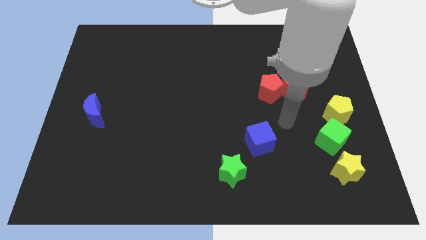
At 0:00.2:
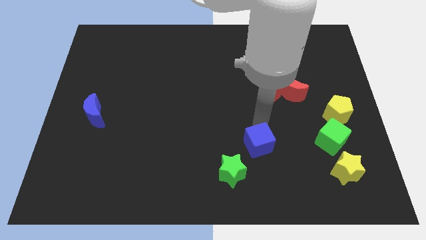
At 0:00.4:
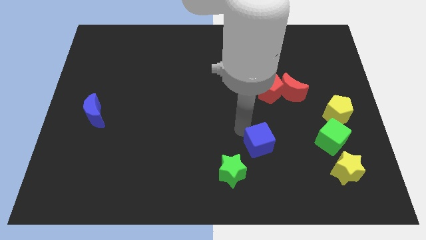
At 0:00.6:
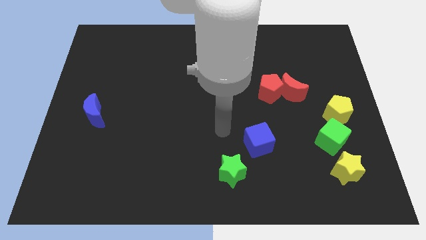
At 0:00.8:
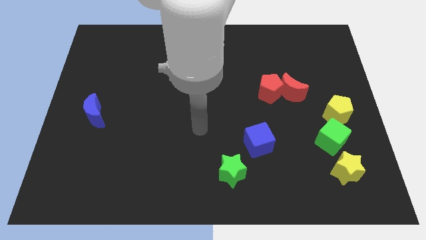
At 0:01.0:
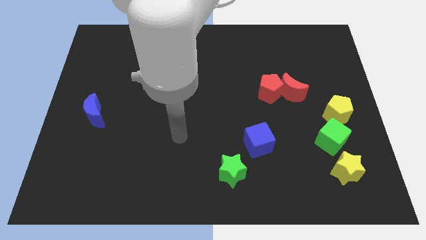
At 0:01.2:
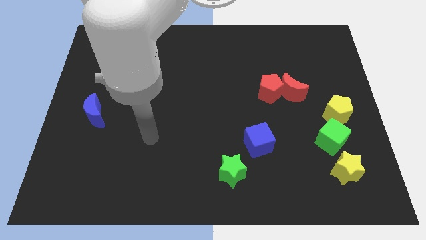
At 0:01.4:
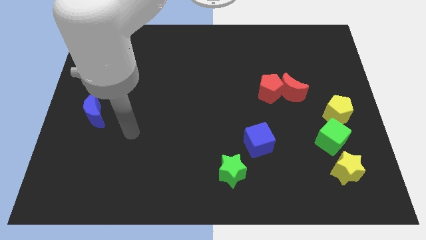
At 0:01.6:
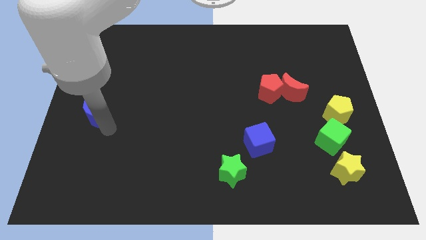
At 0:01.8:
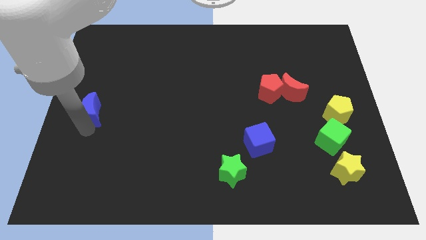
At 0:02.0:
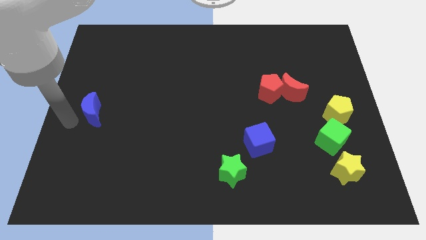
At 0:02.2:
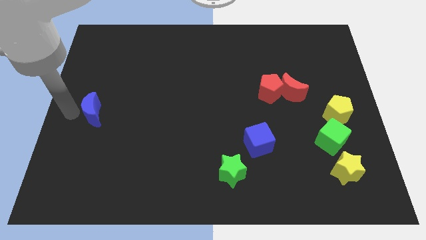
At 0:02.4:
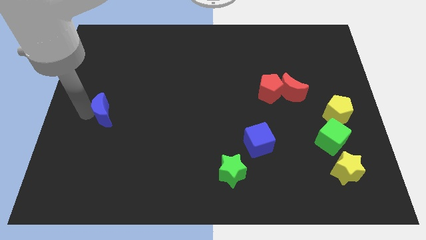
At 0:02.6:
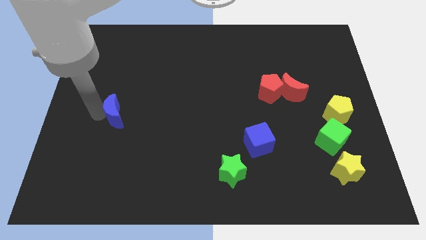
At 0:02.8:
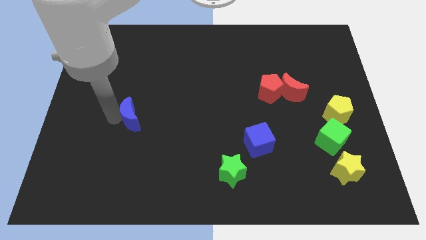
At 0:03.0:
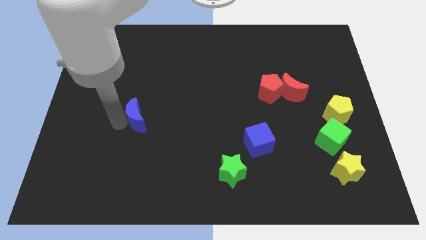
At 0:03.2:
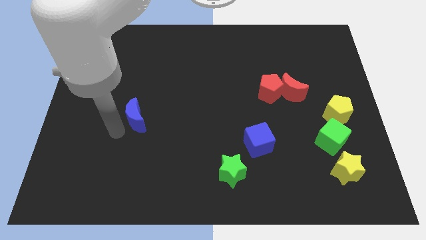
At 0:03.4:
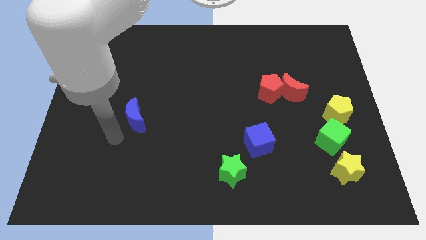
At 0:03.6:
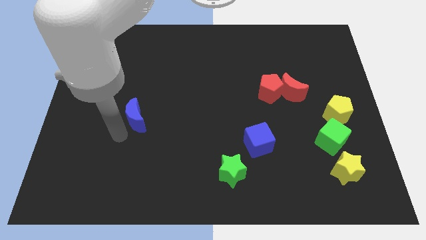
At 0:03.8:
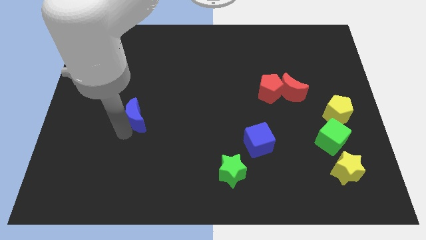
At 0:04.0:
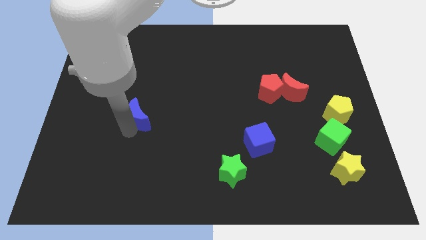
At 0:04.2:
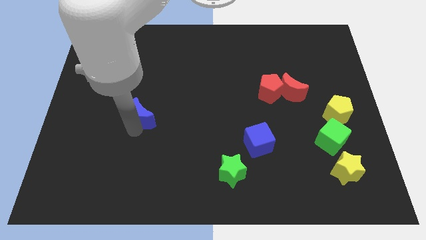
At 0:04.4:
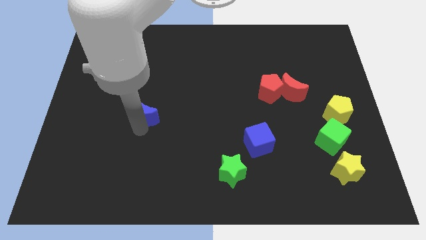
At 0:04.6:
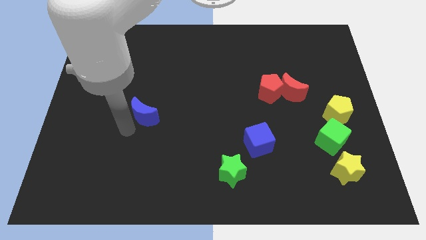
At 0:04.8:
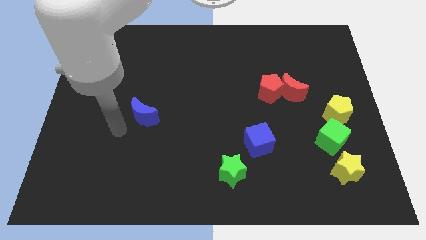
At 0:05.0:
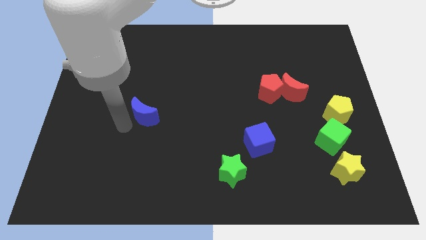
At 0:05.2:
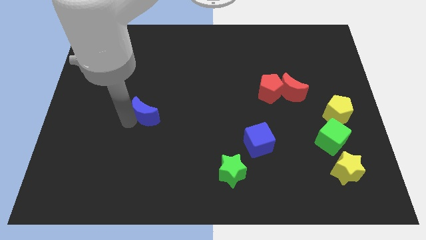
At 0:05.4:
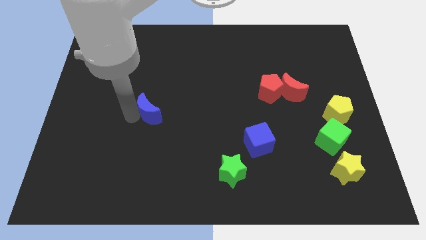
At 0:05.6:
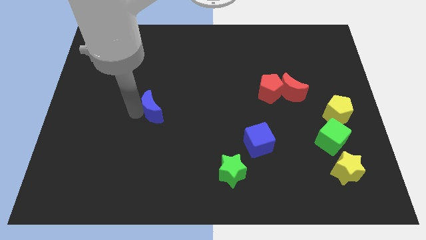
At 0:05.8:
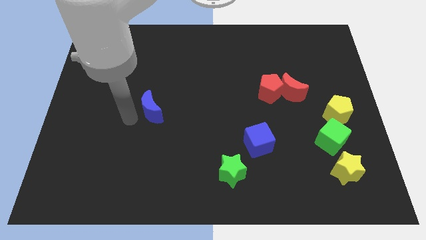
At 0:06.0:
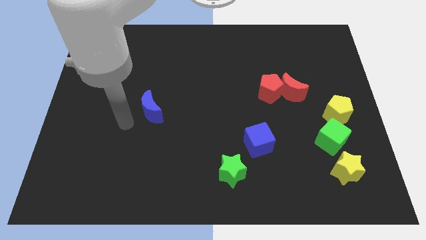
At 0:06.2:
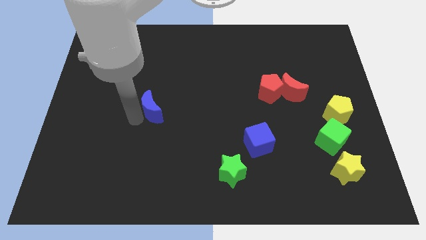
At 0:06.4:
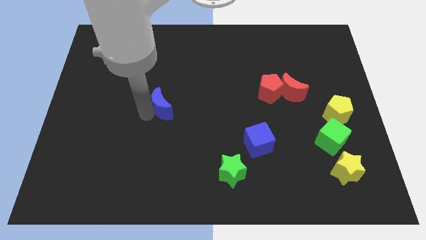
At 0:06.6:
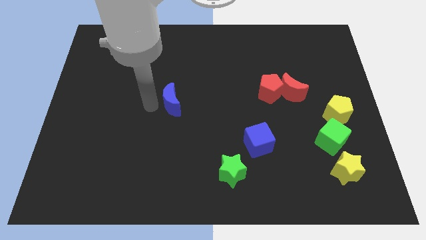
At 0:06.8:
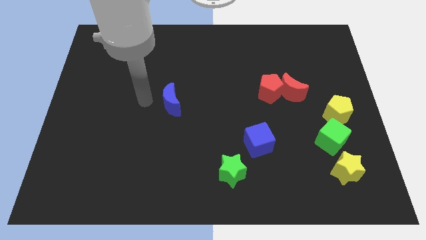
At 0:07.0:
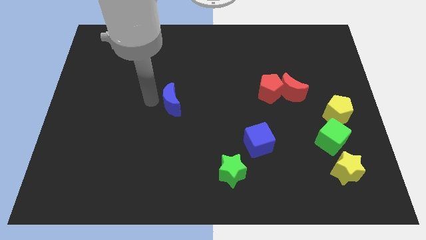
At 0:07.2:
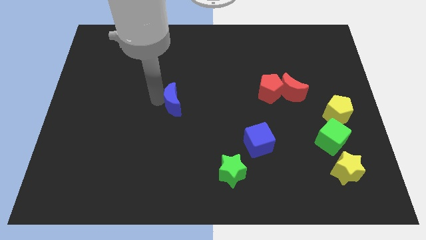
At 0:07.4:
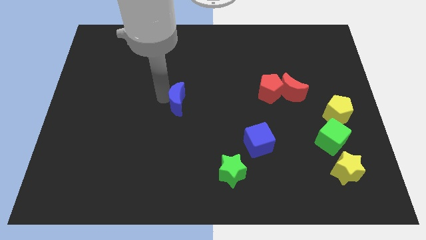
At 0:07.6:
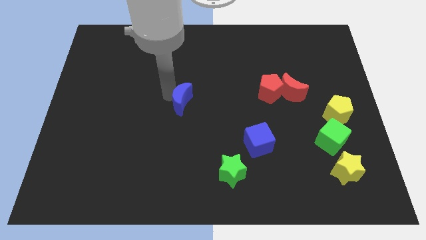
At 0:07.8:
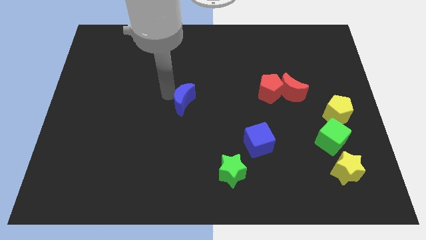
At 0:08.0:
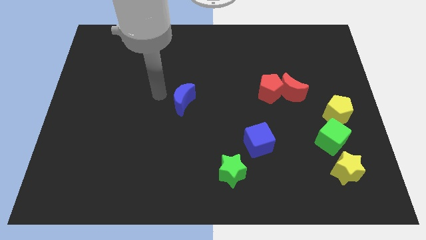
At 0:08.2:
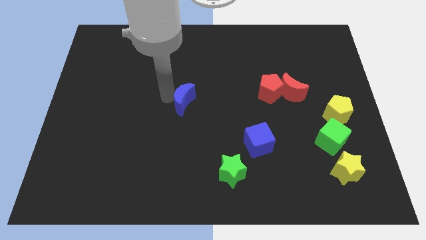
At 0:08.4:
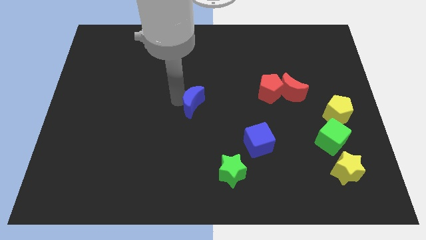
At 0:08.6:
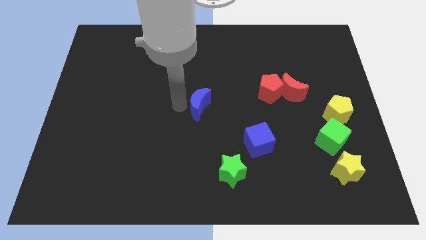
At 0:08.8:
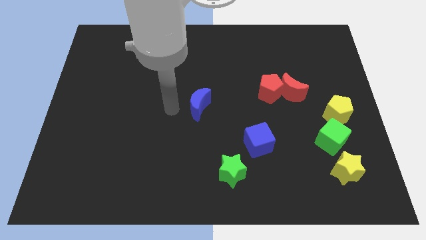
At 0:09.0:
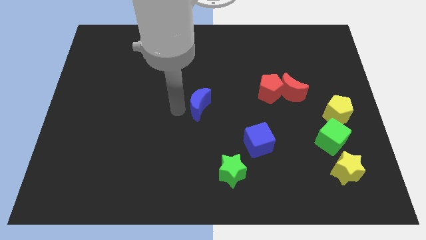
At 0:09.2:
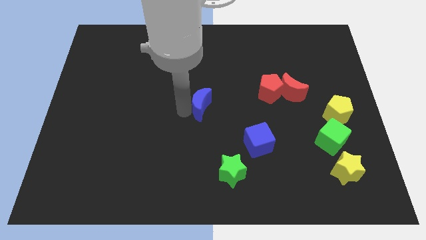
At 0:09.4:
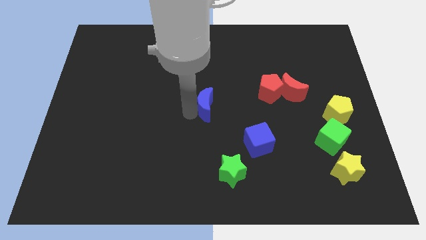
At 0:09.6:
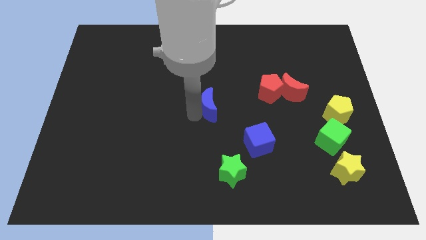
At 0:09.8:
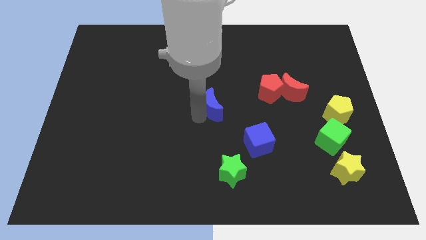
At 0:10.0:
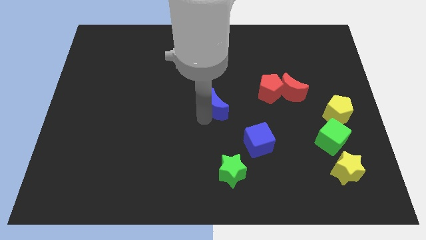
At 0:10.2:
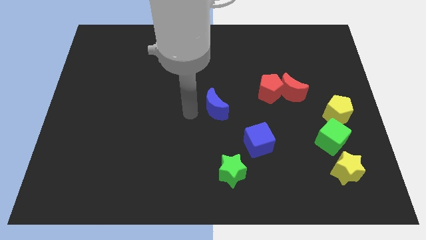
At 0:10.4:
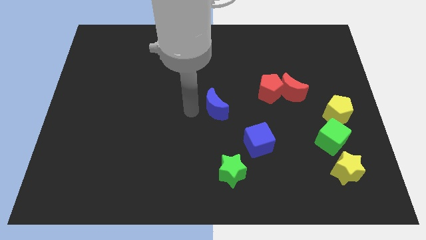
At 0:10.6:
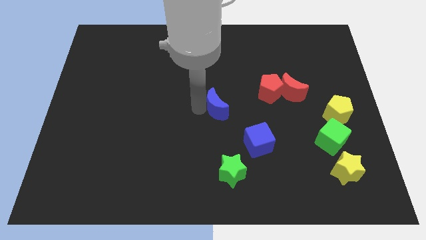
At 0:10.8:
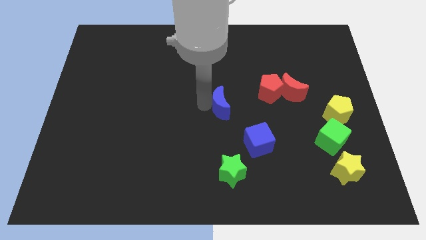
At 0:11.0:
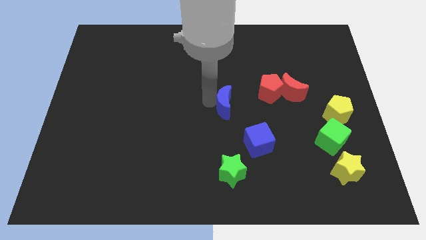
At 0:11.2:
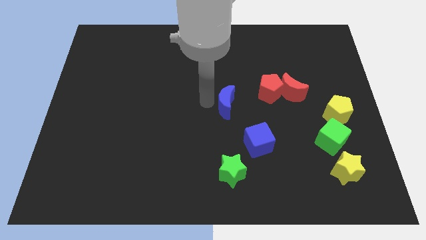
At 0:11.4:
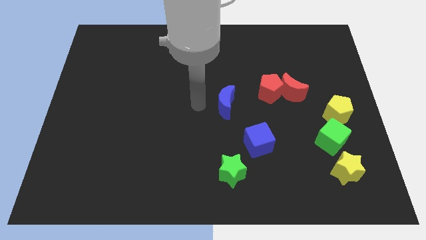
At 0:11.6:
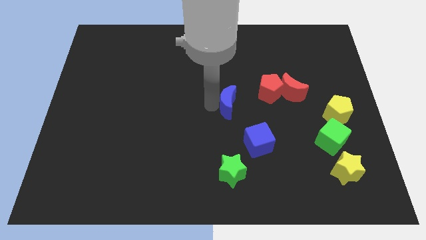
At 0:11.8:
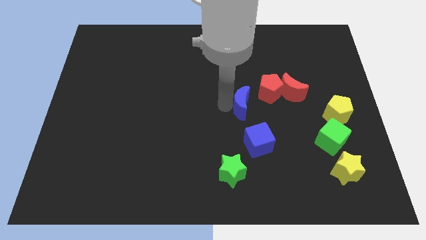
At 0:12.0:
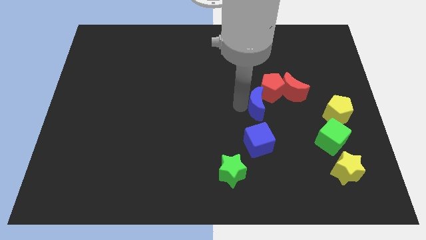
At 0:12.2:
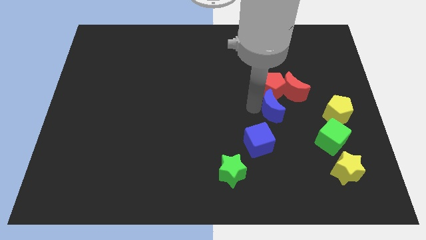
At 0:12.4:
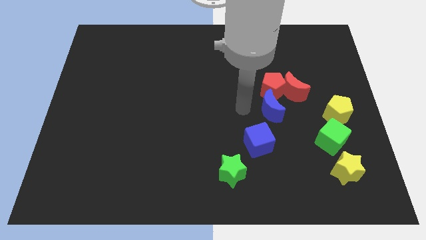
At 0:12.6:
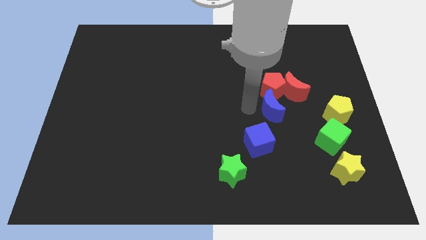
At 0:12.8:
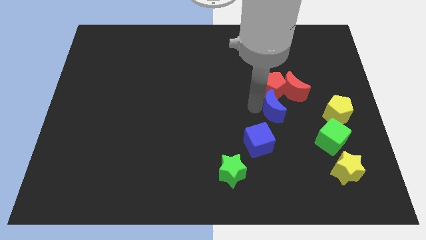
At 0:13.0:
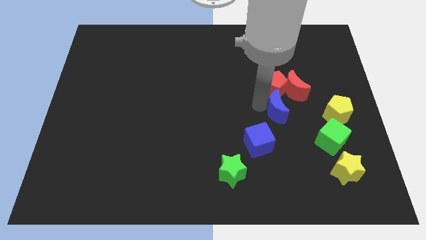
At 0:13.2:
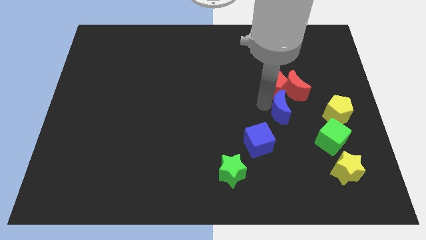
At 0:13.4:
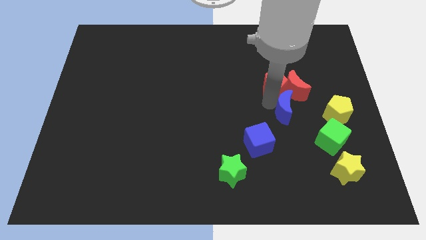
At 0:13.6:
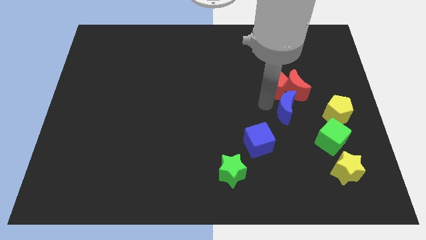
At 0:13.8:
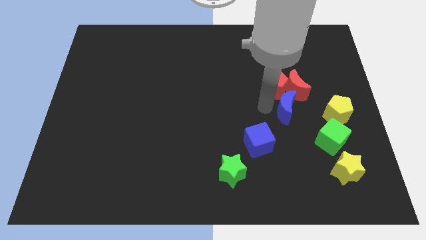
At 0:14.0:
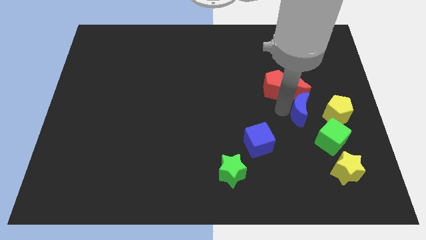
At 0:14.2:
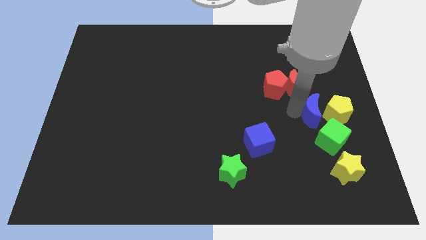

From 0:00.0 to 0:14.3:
put the blue moon next to the yellow pentagon

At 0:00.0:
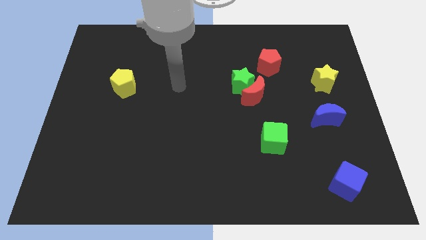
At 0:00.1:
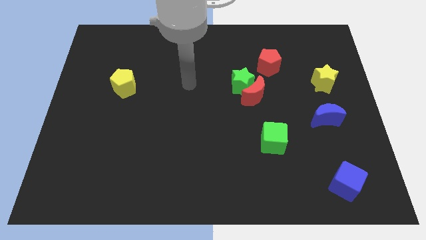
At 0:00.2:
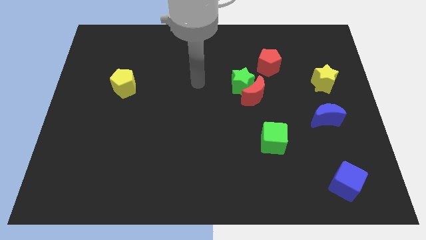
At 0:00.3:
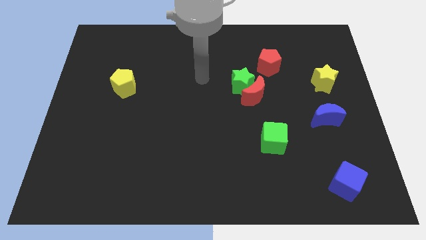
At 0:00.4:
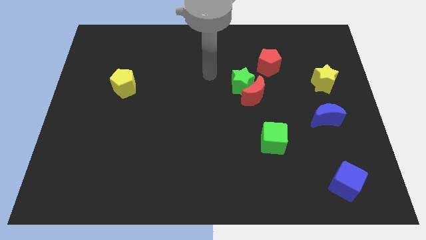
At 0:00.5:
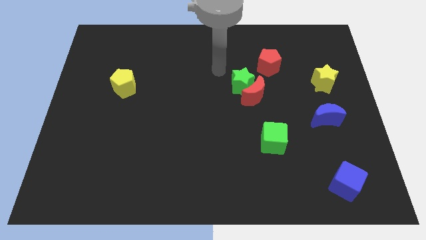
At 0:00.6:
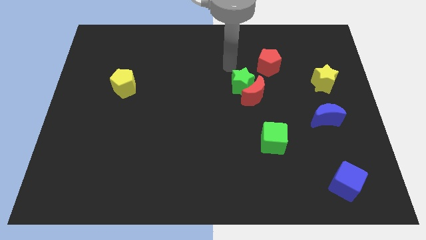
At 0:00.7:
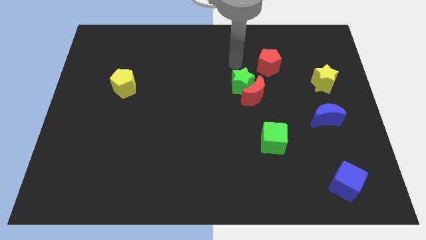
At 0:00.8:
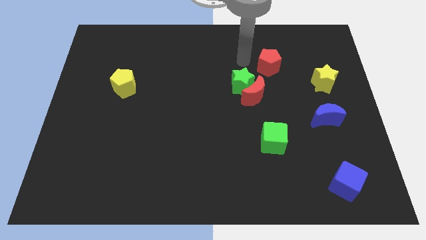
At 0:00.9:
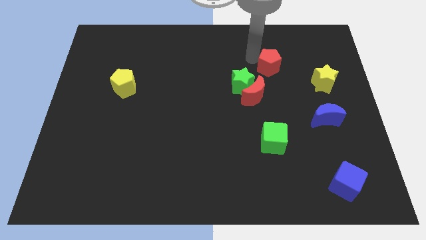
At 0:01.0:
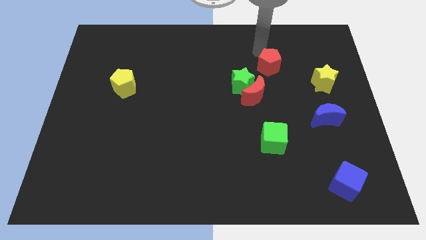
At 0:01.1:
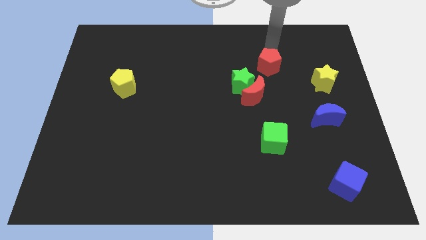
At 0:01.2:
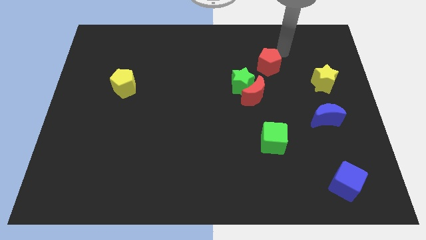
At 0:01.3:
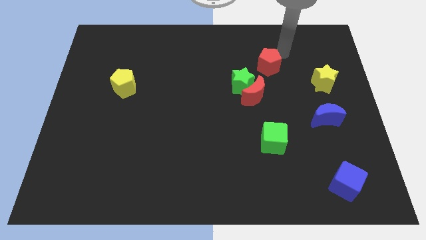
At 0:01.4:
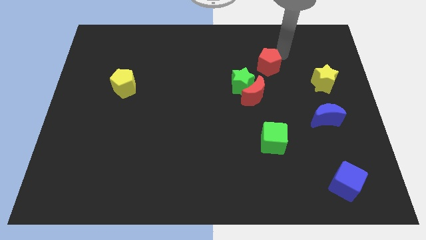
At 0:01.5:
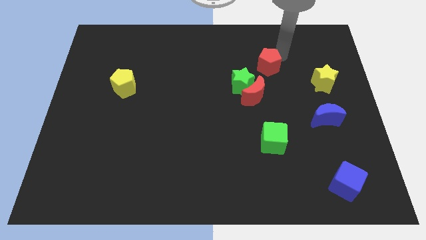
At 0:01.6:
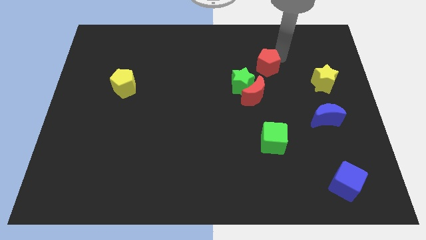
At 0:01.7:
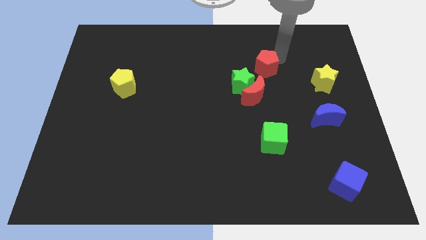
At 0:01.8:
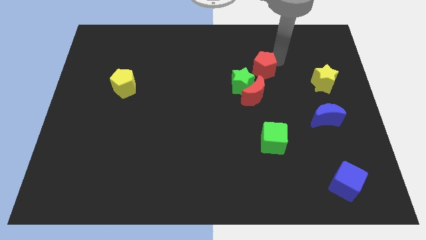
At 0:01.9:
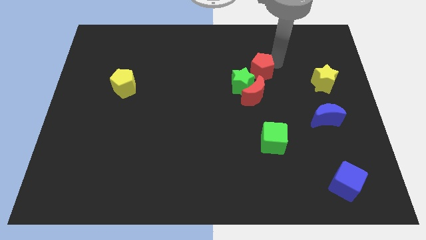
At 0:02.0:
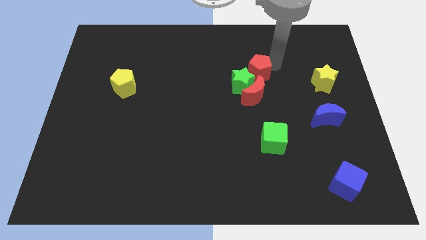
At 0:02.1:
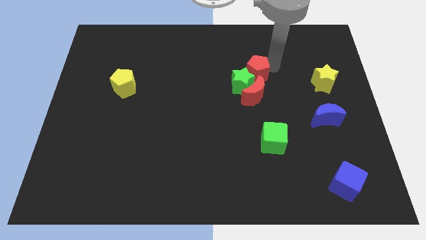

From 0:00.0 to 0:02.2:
move the red pentagon next to the green star
